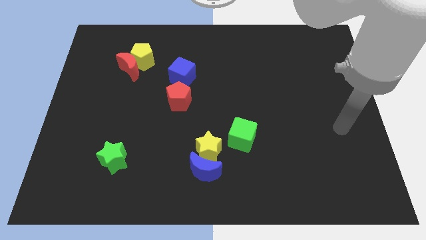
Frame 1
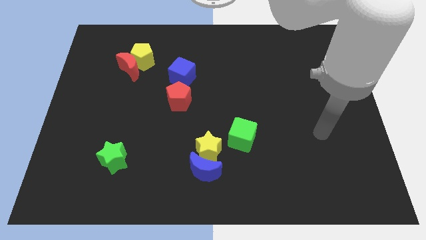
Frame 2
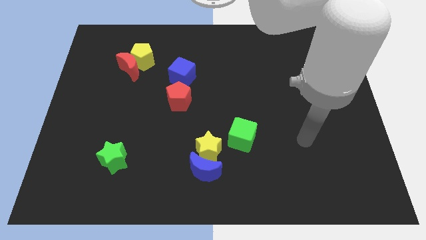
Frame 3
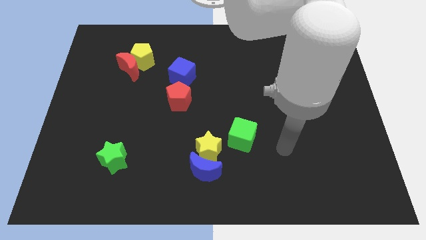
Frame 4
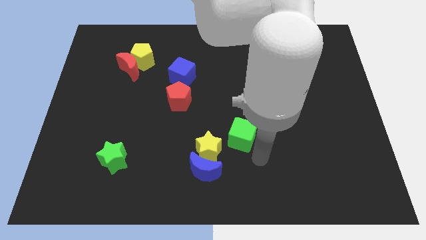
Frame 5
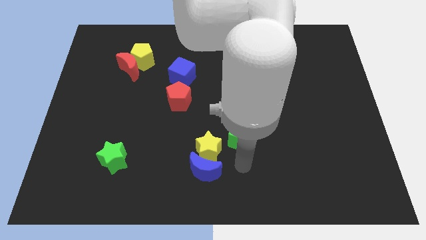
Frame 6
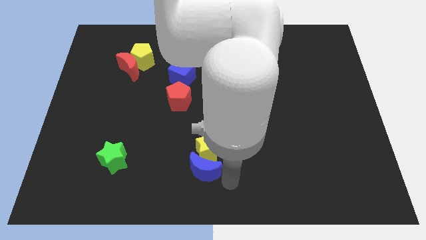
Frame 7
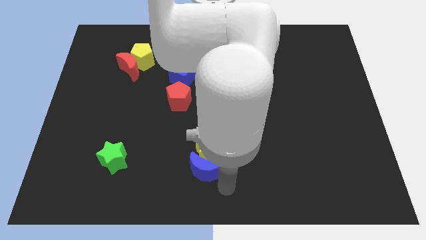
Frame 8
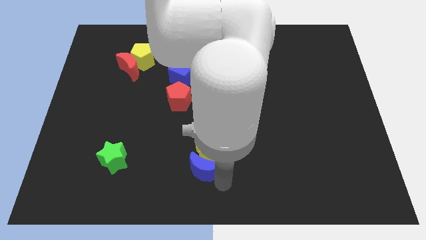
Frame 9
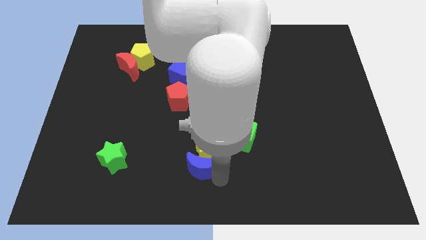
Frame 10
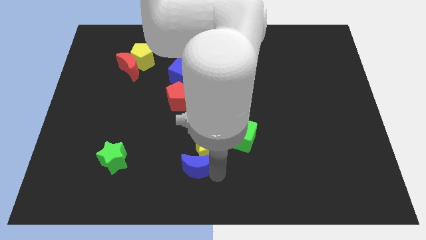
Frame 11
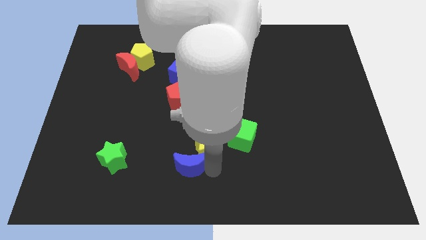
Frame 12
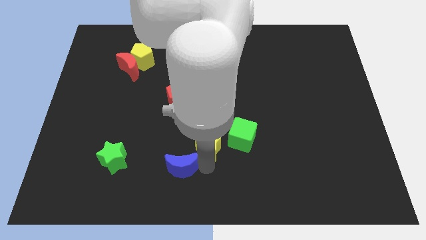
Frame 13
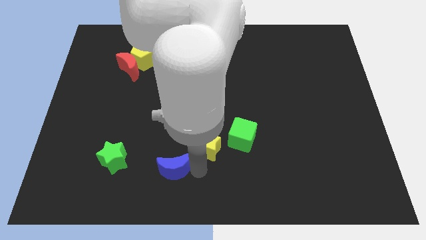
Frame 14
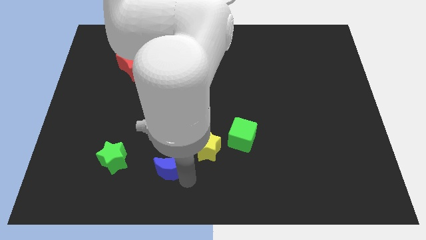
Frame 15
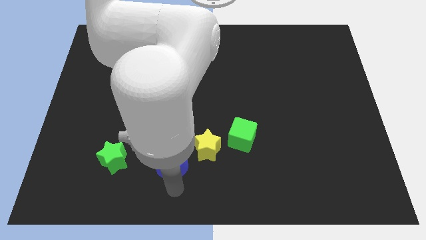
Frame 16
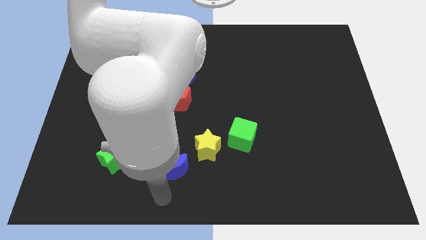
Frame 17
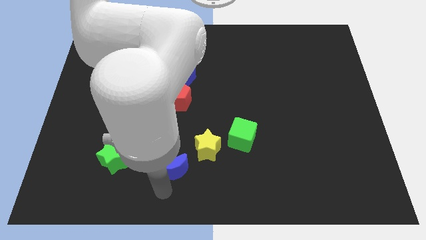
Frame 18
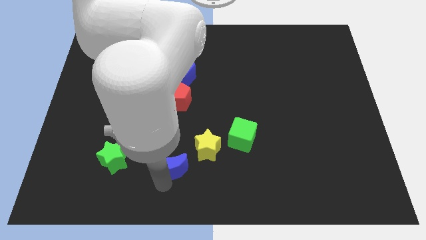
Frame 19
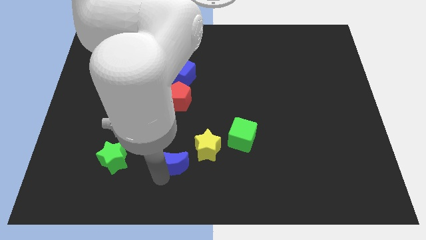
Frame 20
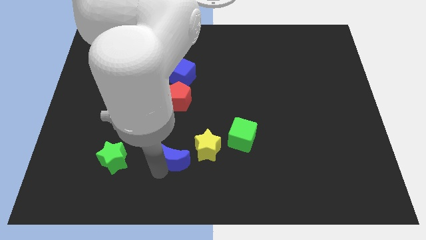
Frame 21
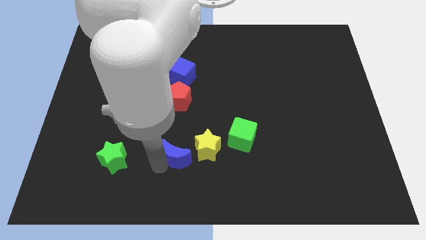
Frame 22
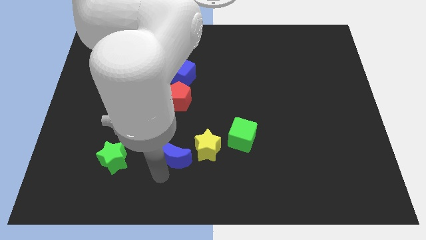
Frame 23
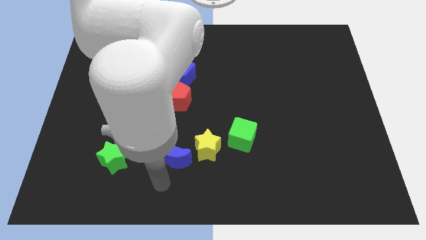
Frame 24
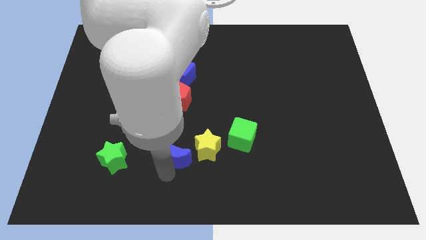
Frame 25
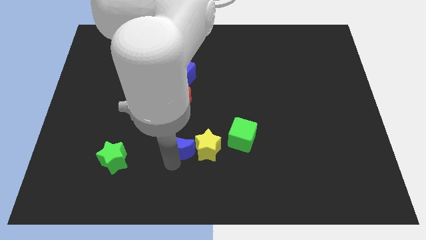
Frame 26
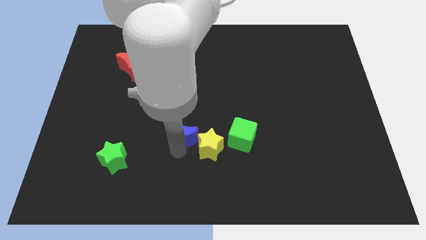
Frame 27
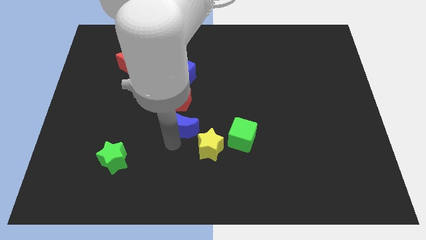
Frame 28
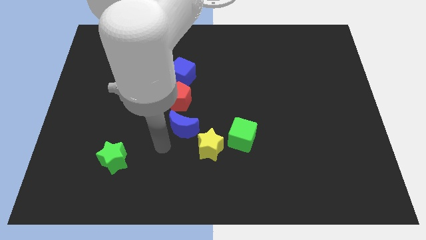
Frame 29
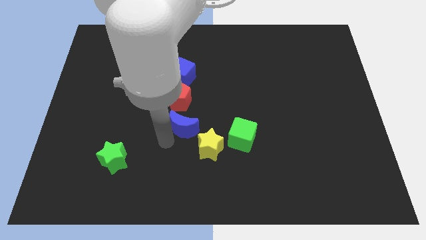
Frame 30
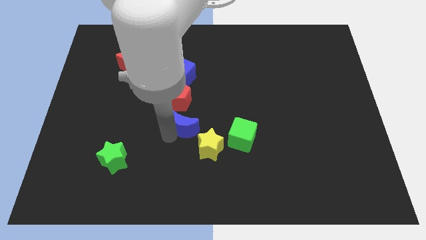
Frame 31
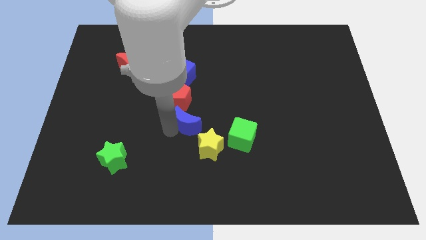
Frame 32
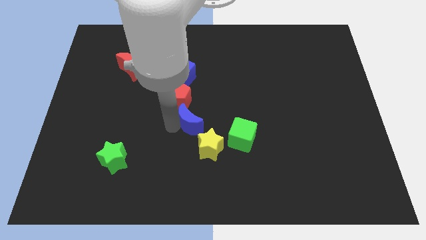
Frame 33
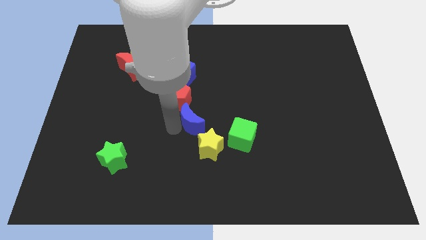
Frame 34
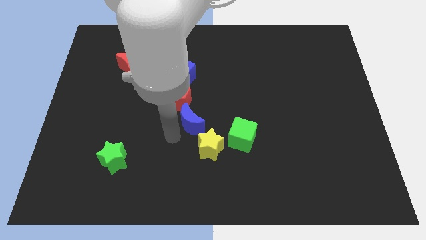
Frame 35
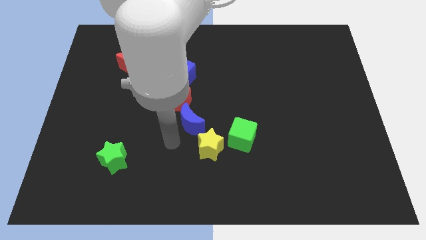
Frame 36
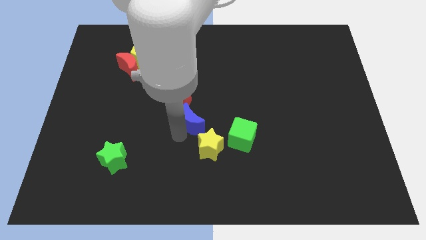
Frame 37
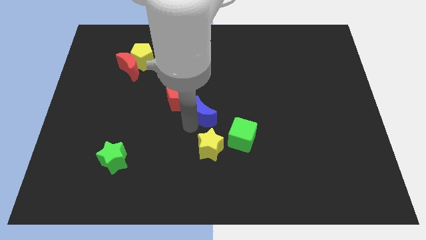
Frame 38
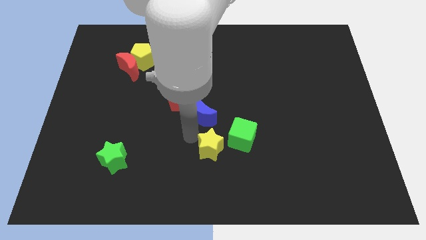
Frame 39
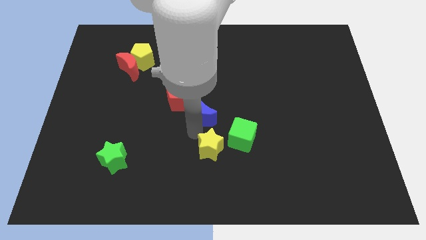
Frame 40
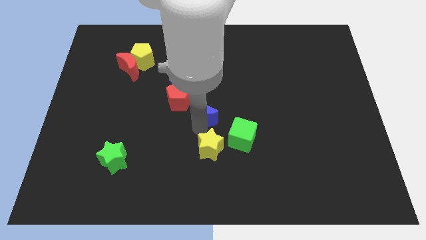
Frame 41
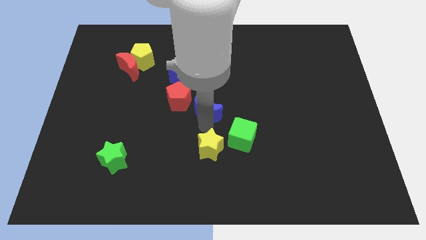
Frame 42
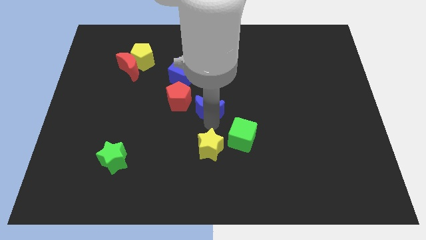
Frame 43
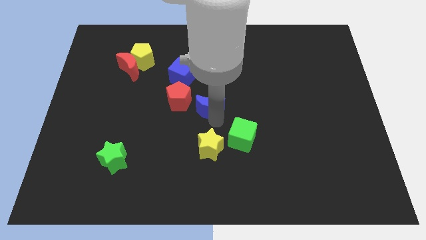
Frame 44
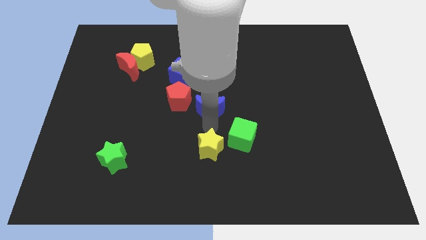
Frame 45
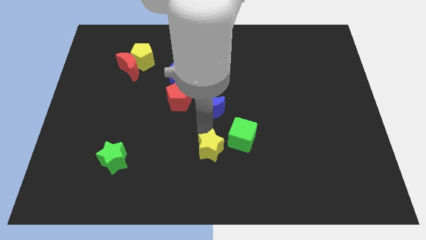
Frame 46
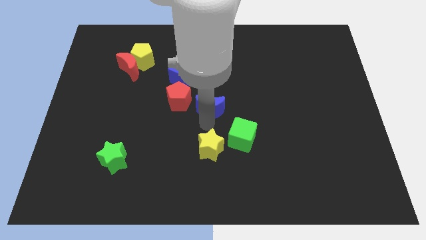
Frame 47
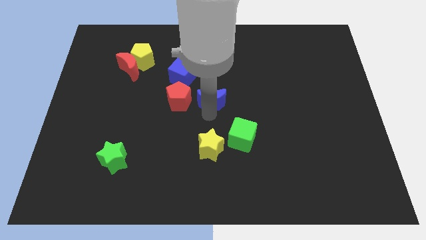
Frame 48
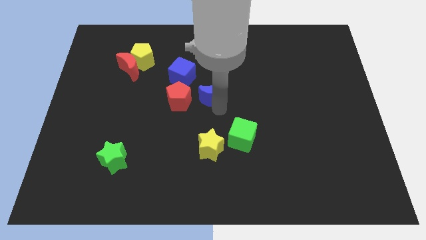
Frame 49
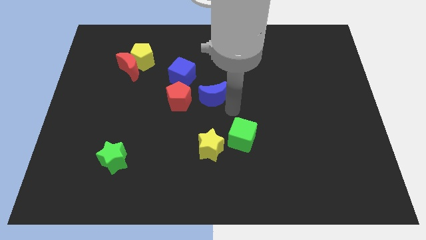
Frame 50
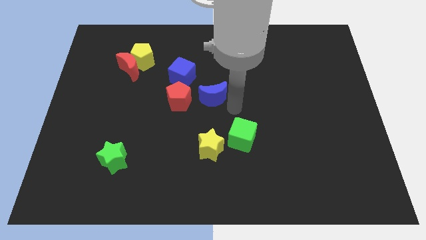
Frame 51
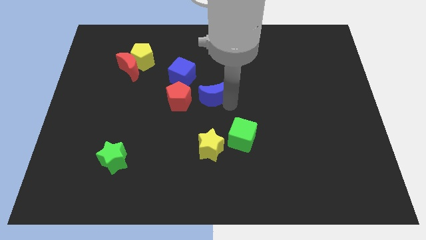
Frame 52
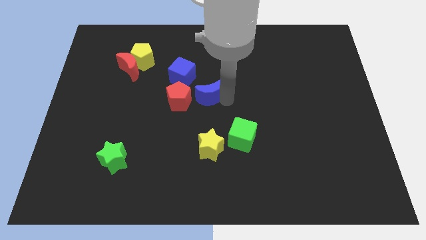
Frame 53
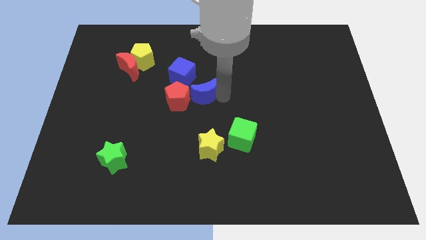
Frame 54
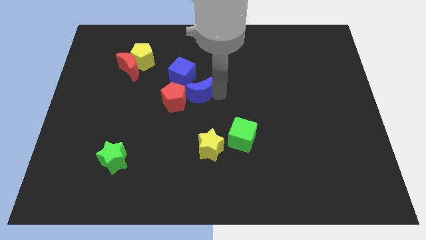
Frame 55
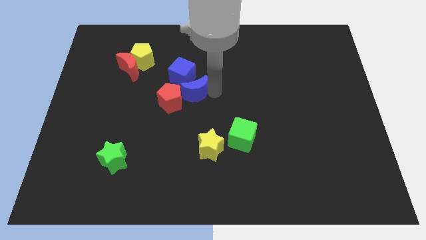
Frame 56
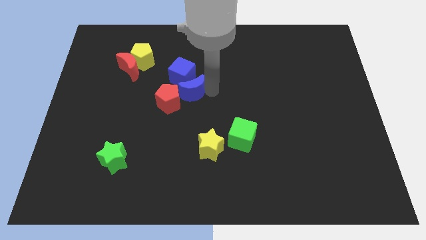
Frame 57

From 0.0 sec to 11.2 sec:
move the blue moon to the blue cube

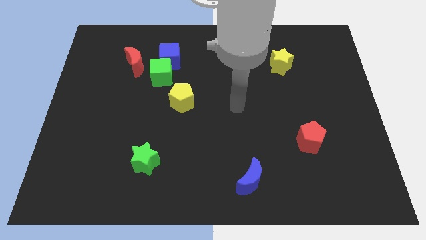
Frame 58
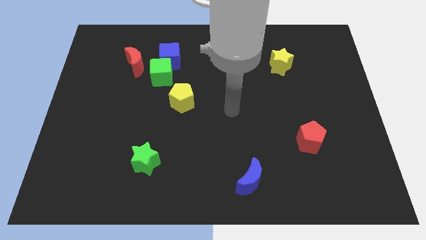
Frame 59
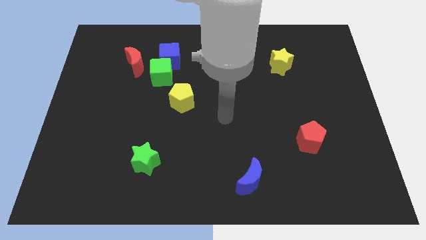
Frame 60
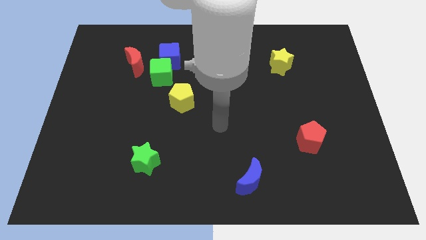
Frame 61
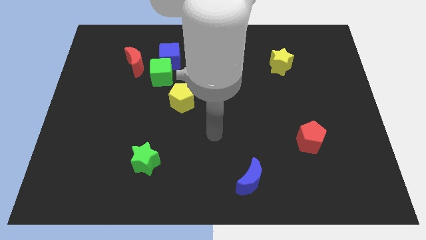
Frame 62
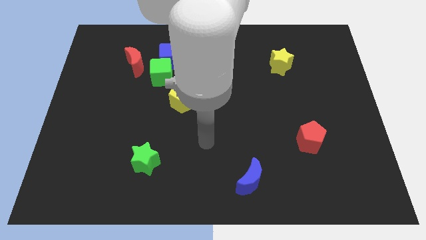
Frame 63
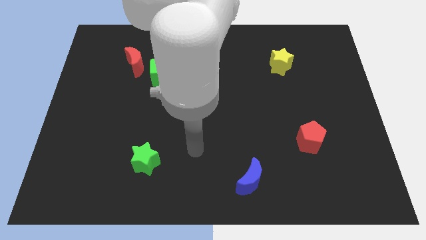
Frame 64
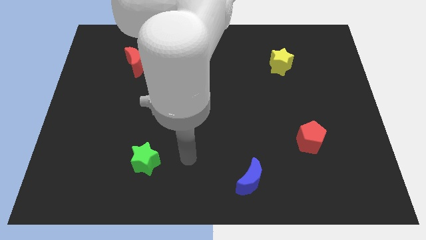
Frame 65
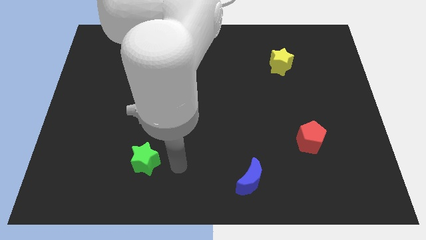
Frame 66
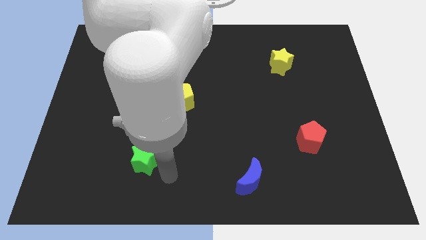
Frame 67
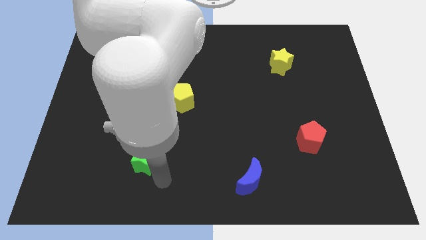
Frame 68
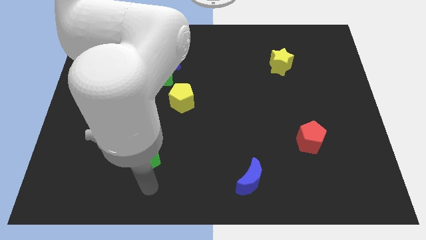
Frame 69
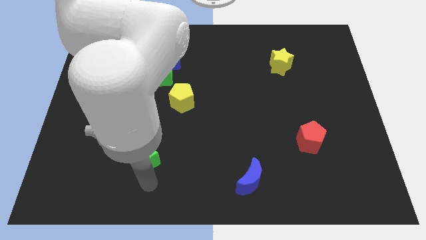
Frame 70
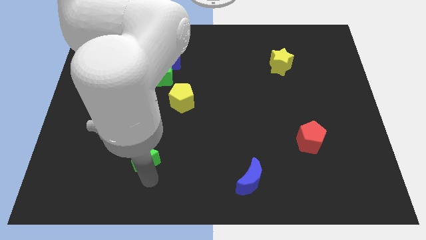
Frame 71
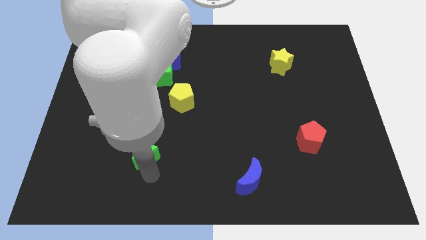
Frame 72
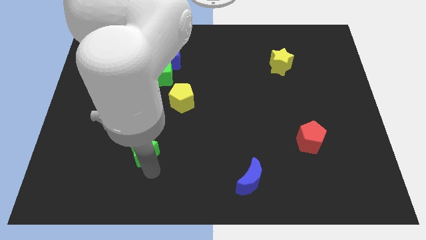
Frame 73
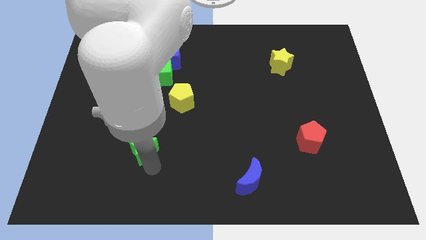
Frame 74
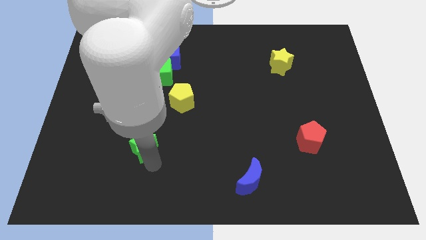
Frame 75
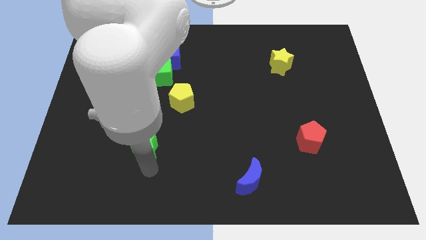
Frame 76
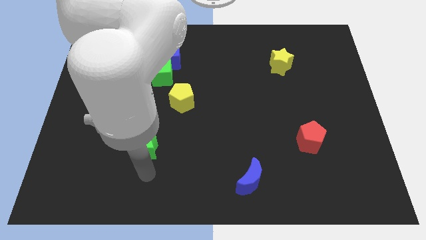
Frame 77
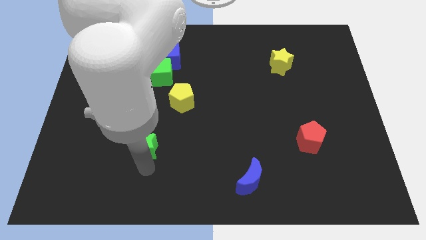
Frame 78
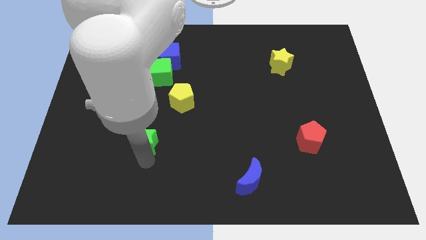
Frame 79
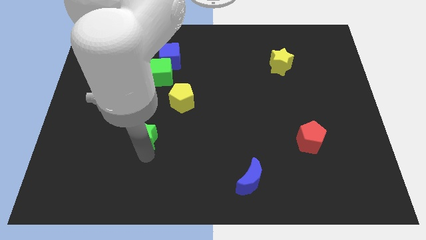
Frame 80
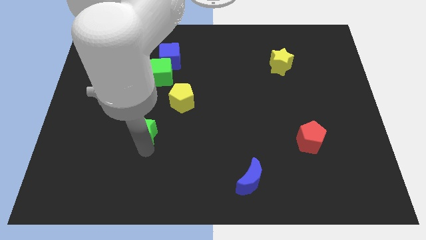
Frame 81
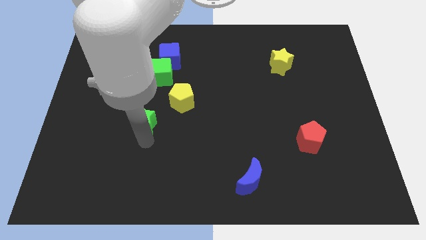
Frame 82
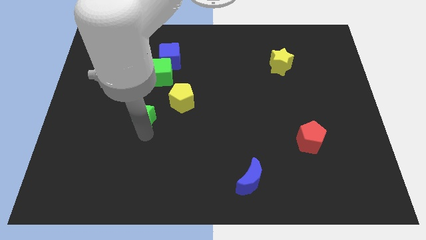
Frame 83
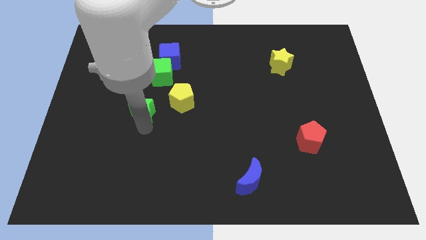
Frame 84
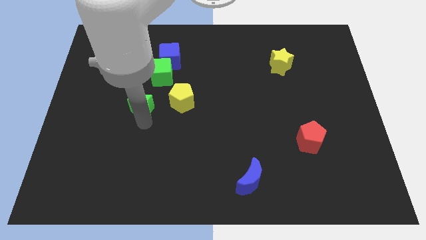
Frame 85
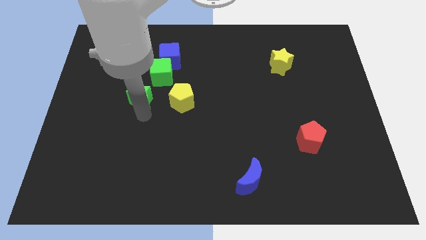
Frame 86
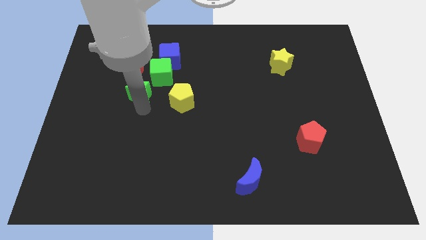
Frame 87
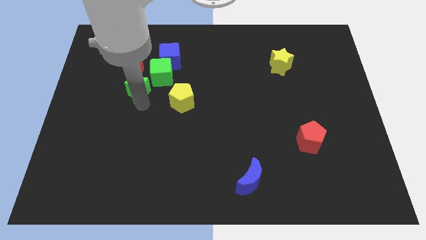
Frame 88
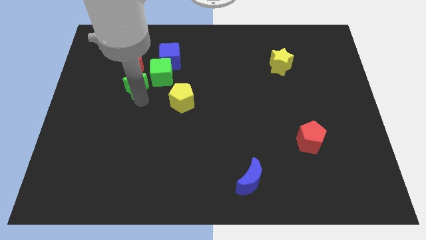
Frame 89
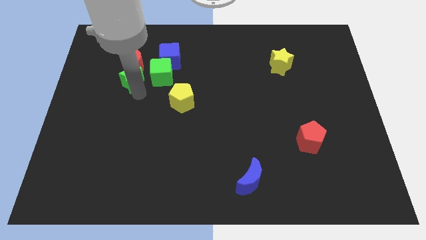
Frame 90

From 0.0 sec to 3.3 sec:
push the green star next to the red moon
